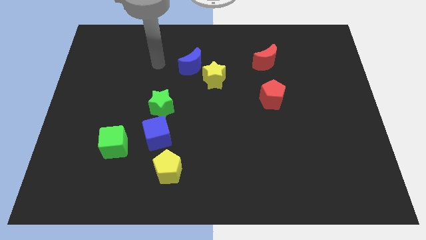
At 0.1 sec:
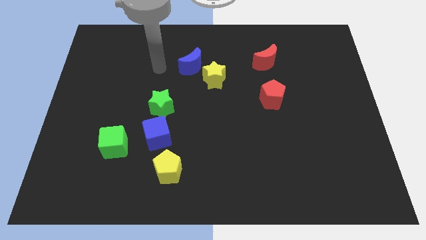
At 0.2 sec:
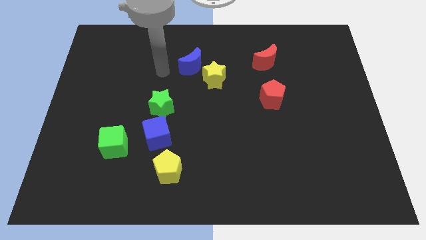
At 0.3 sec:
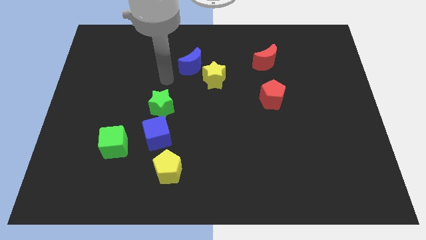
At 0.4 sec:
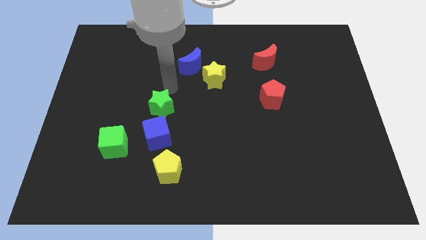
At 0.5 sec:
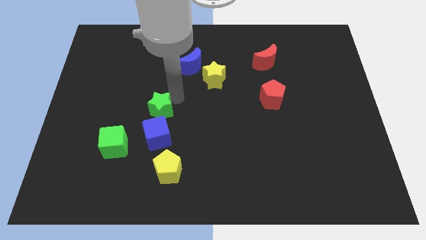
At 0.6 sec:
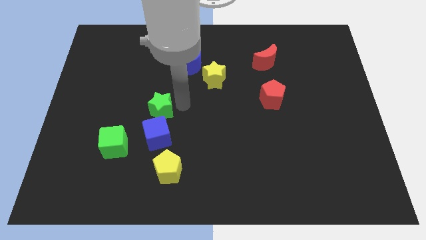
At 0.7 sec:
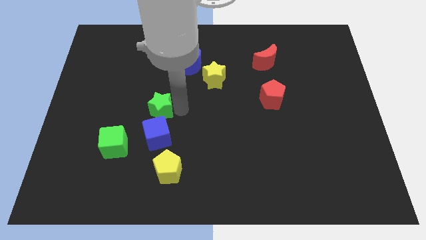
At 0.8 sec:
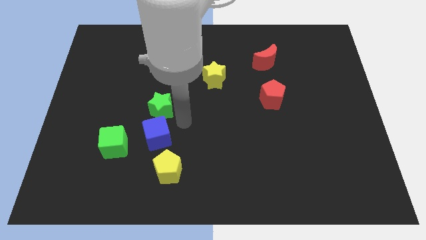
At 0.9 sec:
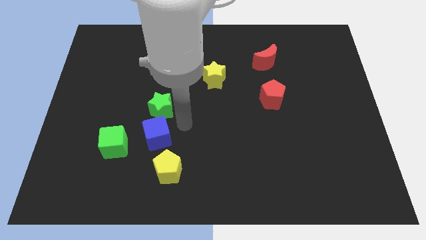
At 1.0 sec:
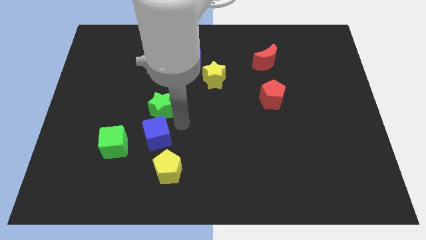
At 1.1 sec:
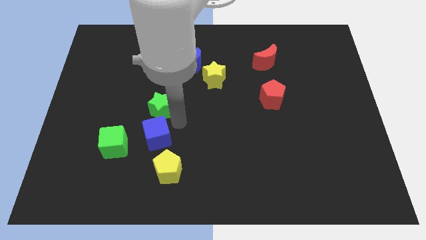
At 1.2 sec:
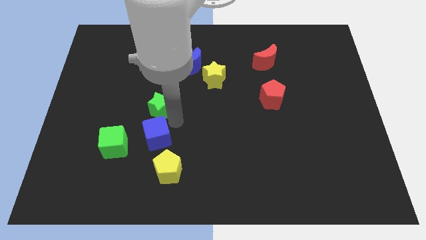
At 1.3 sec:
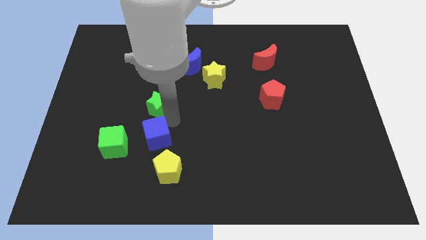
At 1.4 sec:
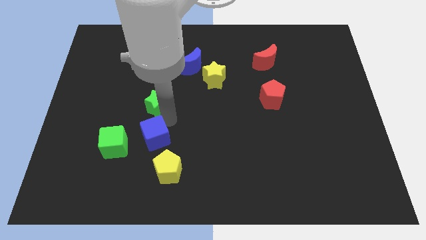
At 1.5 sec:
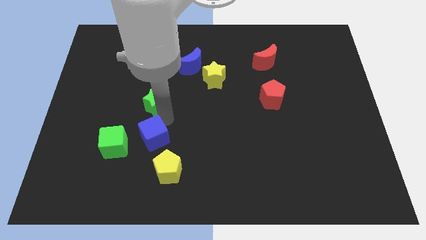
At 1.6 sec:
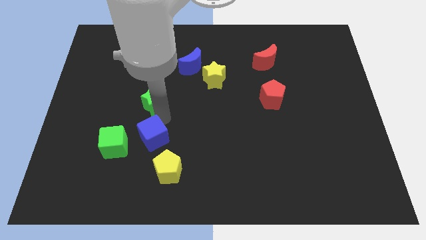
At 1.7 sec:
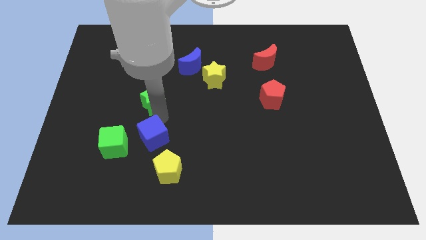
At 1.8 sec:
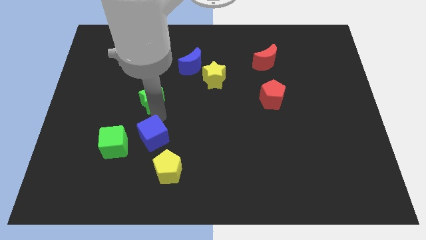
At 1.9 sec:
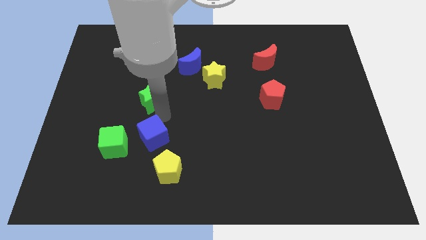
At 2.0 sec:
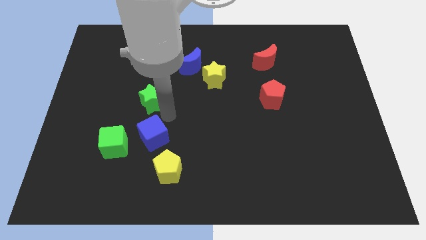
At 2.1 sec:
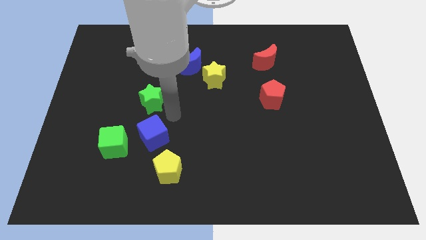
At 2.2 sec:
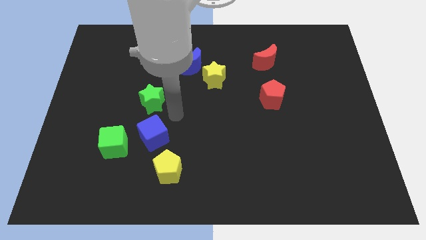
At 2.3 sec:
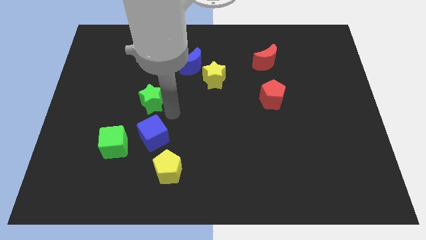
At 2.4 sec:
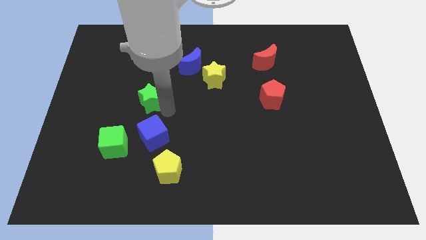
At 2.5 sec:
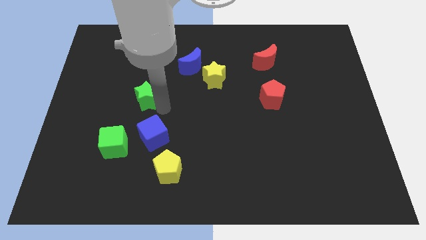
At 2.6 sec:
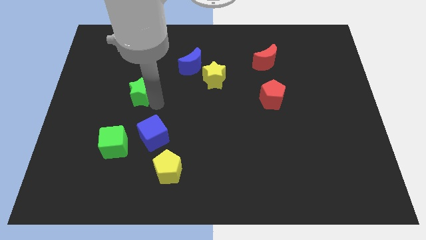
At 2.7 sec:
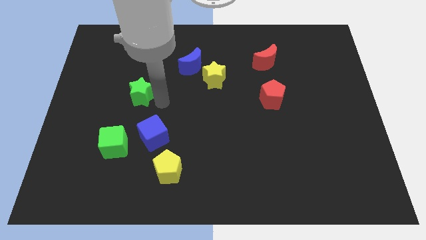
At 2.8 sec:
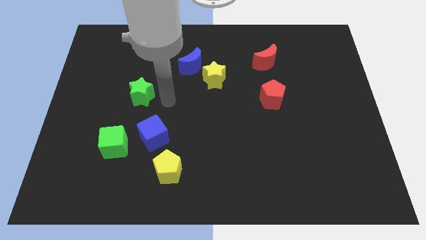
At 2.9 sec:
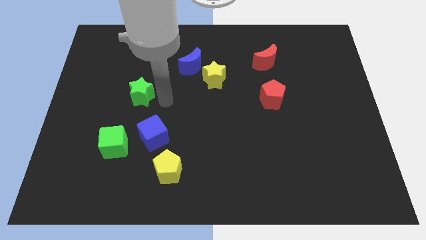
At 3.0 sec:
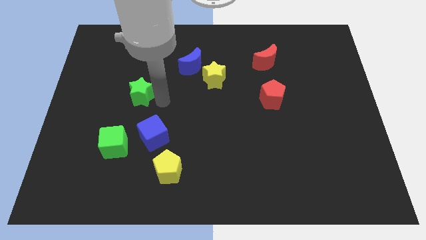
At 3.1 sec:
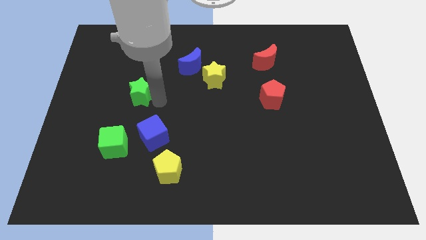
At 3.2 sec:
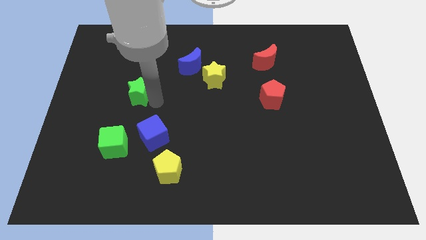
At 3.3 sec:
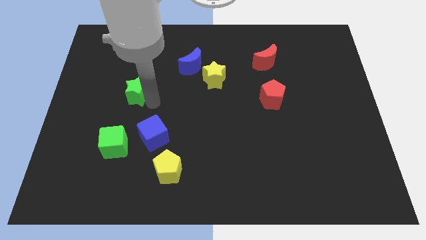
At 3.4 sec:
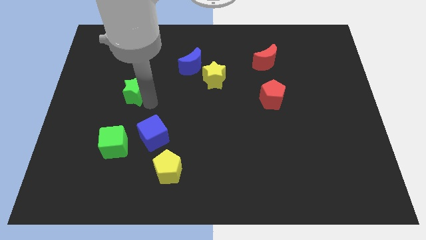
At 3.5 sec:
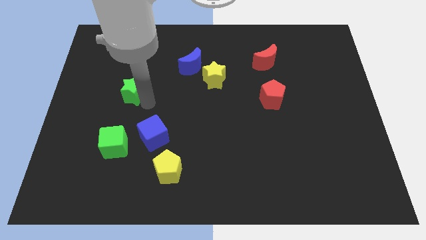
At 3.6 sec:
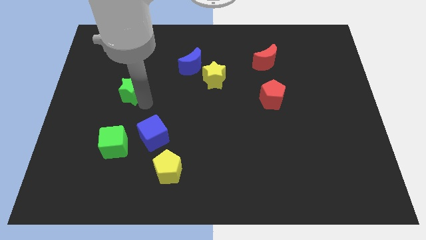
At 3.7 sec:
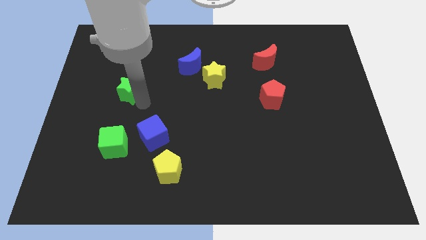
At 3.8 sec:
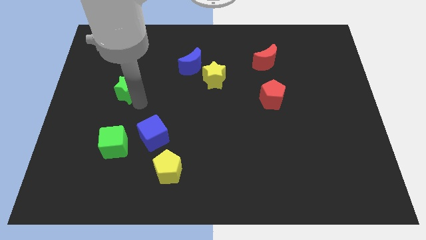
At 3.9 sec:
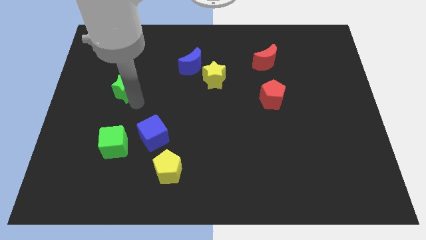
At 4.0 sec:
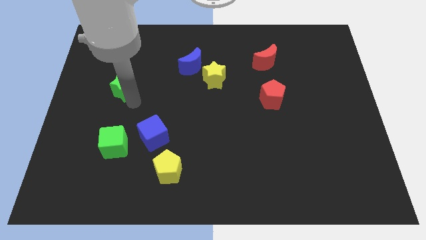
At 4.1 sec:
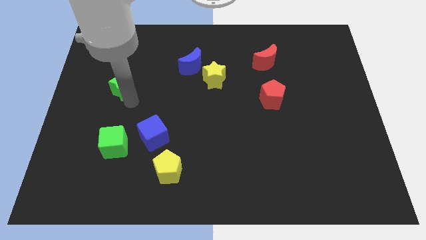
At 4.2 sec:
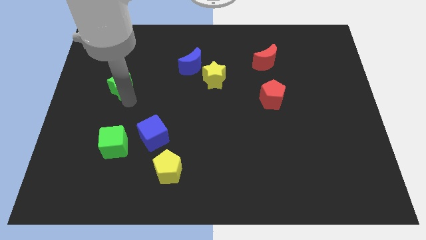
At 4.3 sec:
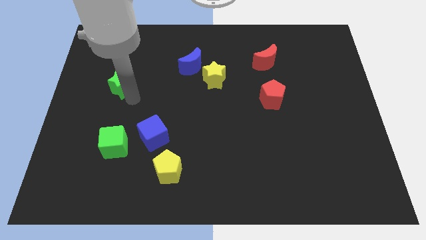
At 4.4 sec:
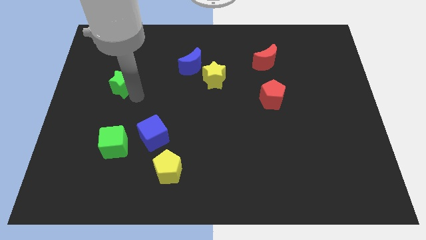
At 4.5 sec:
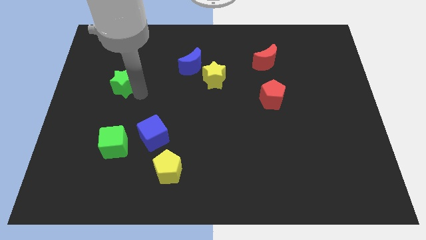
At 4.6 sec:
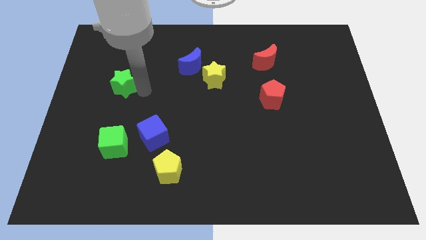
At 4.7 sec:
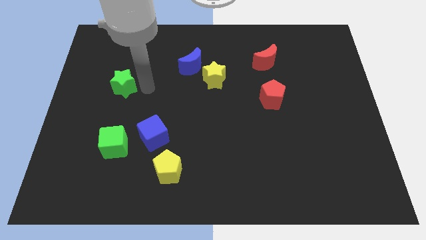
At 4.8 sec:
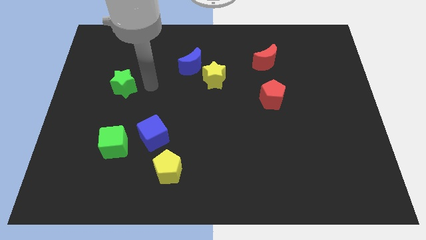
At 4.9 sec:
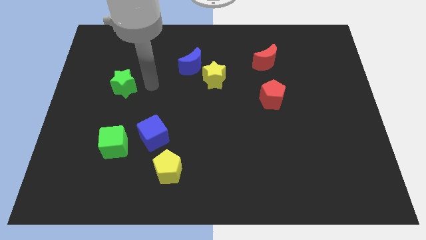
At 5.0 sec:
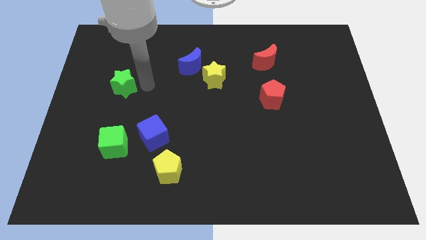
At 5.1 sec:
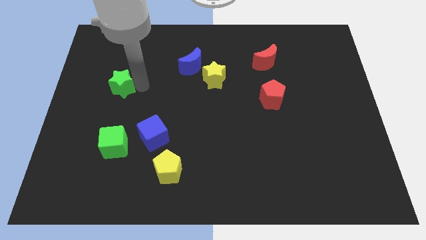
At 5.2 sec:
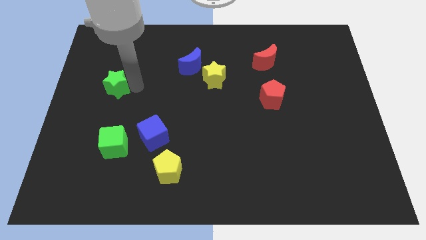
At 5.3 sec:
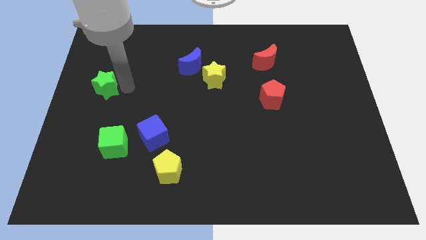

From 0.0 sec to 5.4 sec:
slide the green star to the center left

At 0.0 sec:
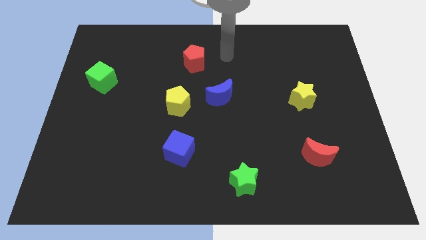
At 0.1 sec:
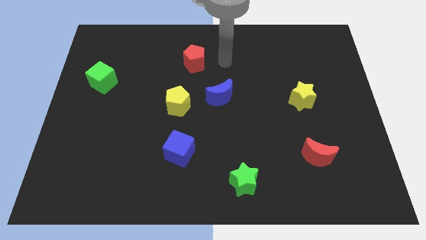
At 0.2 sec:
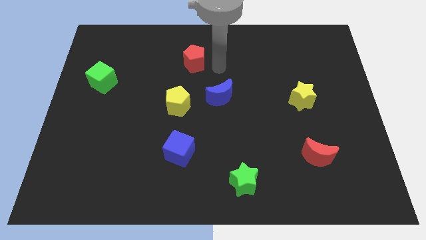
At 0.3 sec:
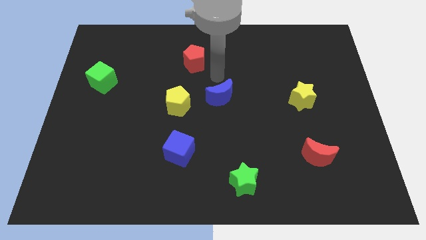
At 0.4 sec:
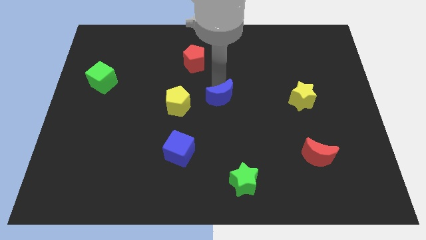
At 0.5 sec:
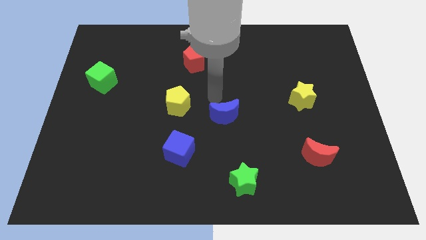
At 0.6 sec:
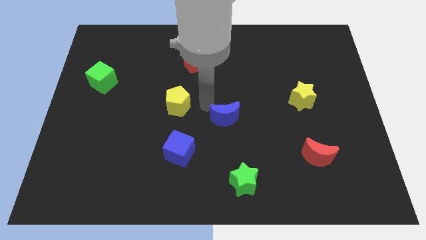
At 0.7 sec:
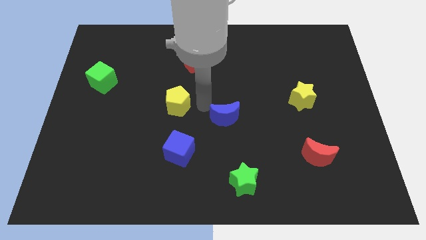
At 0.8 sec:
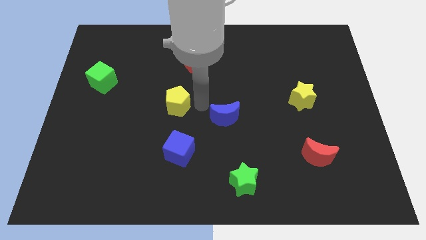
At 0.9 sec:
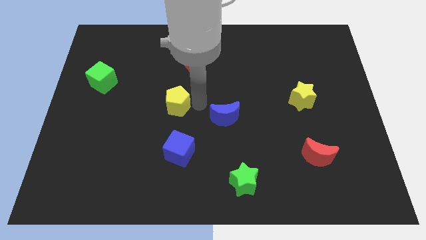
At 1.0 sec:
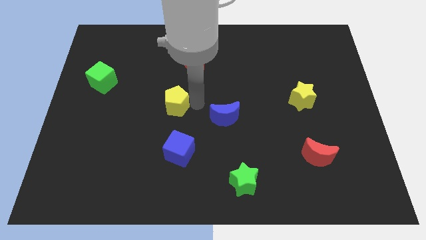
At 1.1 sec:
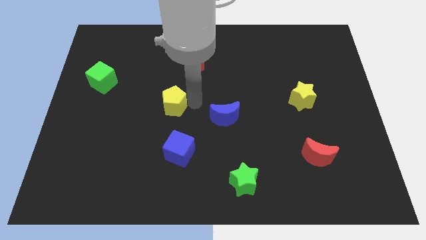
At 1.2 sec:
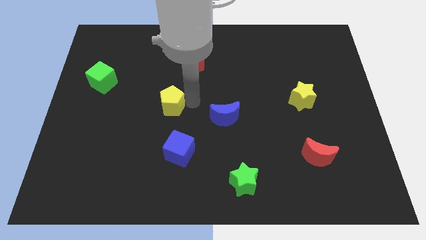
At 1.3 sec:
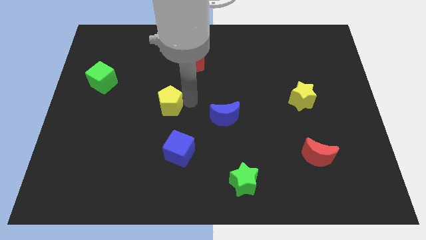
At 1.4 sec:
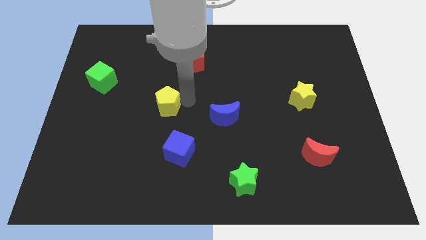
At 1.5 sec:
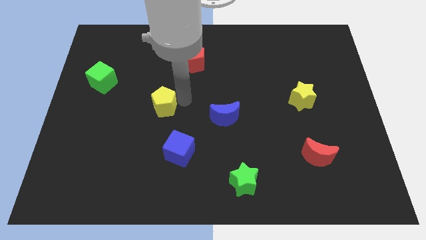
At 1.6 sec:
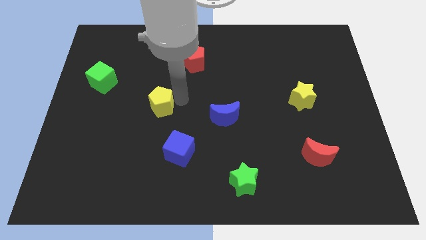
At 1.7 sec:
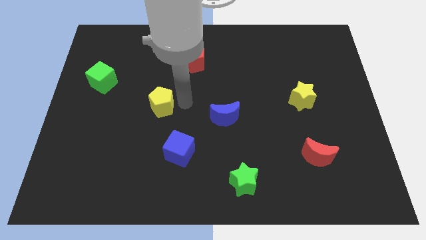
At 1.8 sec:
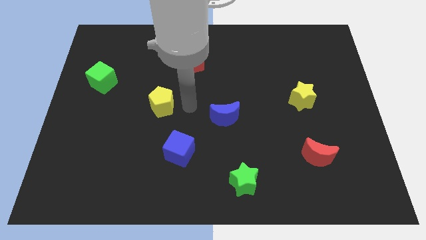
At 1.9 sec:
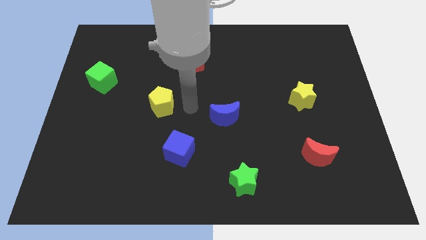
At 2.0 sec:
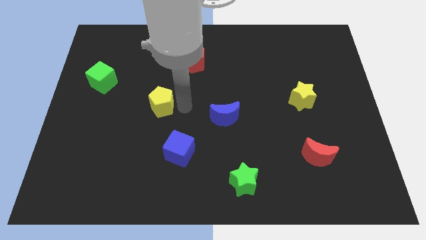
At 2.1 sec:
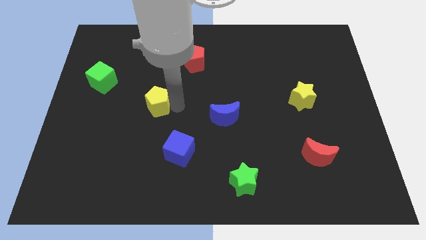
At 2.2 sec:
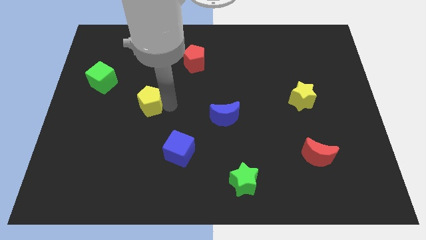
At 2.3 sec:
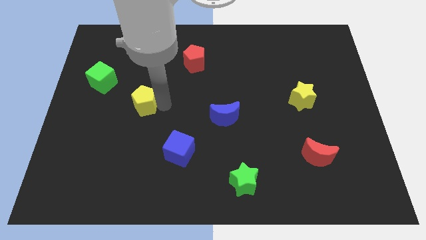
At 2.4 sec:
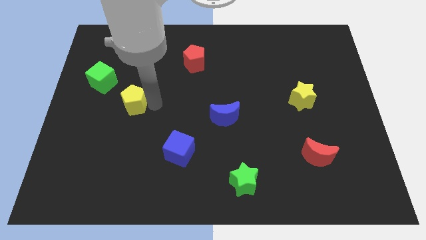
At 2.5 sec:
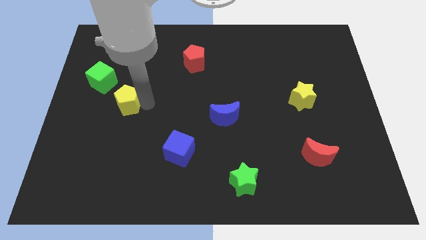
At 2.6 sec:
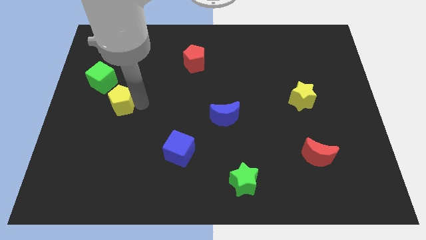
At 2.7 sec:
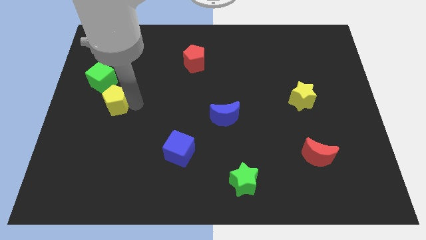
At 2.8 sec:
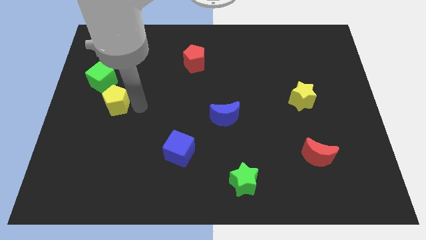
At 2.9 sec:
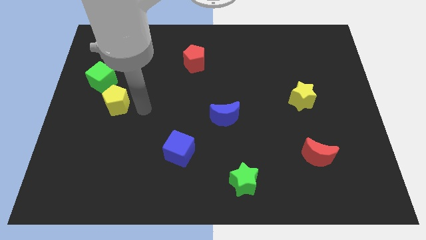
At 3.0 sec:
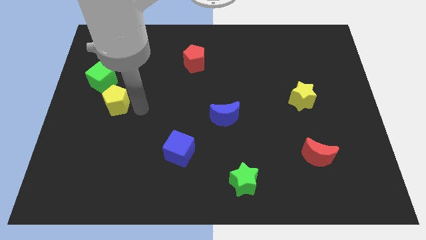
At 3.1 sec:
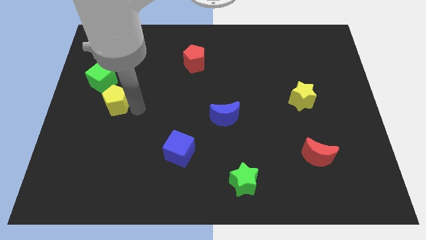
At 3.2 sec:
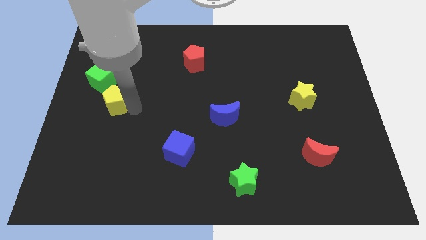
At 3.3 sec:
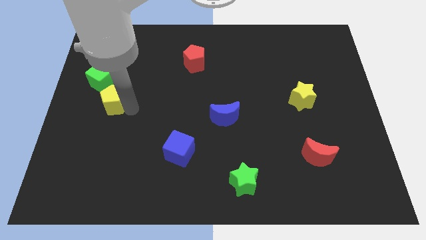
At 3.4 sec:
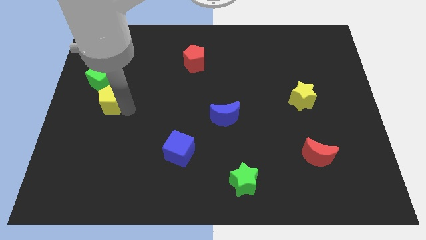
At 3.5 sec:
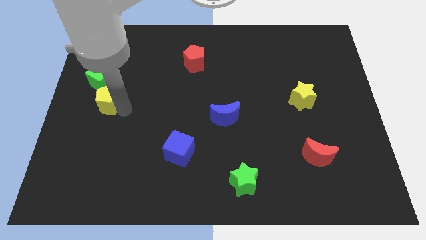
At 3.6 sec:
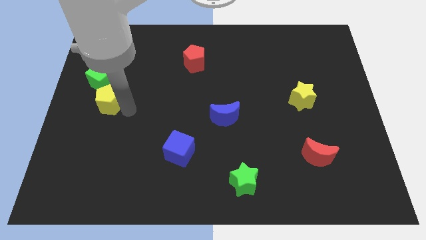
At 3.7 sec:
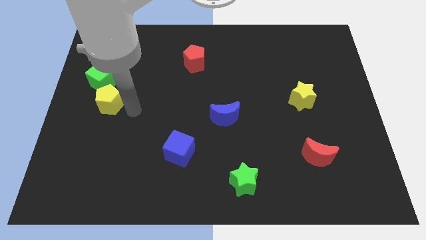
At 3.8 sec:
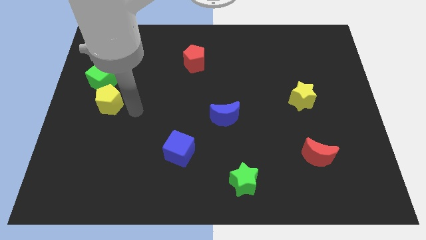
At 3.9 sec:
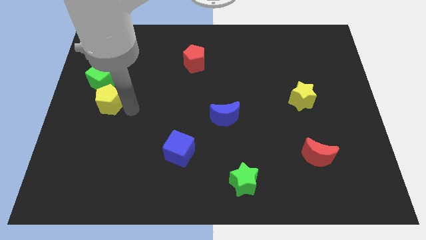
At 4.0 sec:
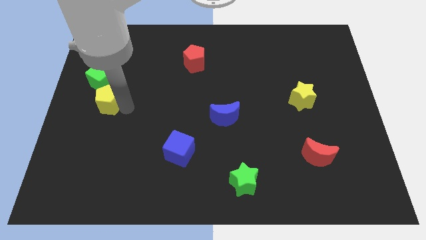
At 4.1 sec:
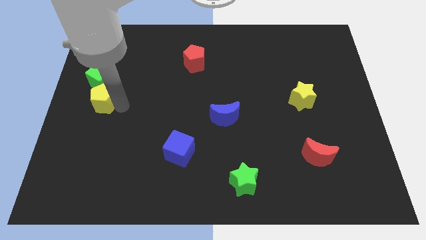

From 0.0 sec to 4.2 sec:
slide the yellow pentagon to the left side of the board
